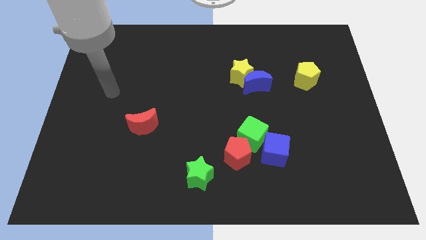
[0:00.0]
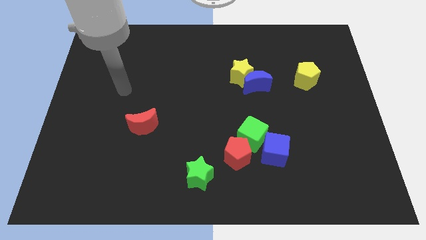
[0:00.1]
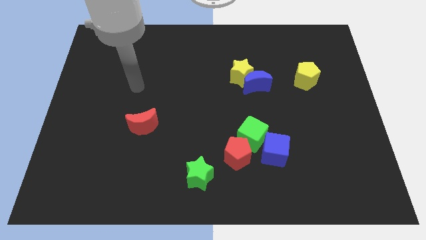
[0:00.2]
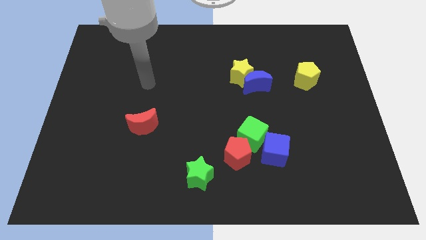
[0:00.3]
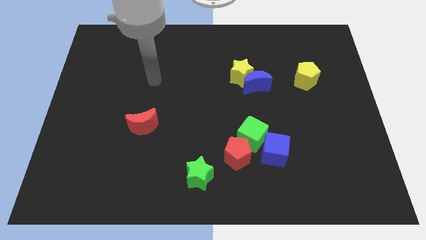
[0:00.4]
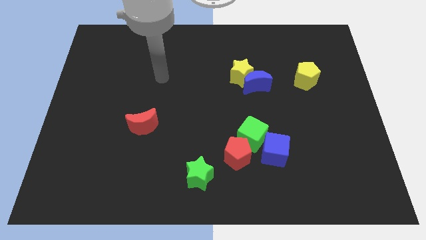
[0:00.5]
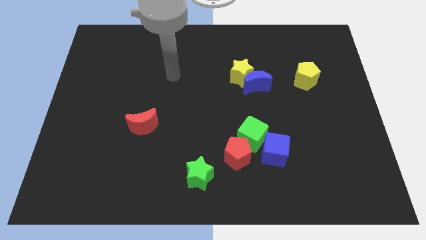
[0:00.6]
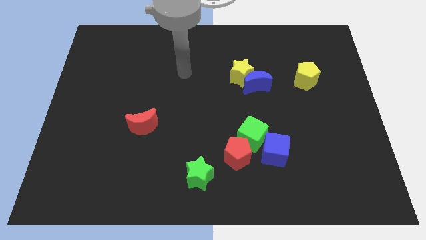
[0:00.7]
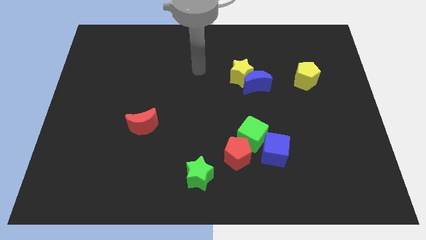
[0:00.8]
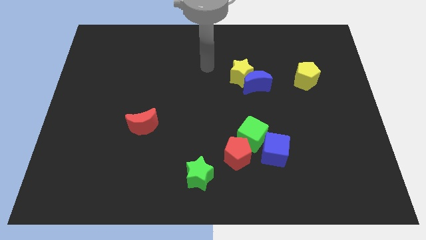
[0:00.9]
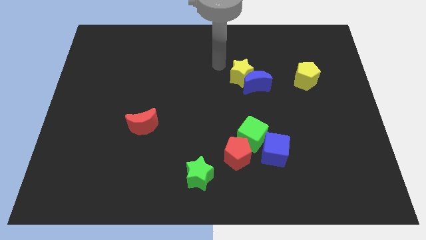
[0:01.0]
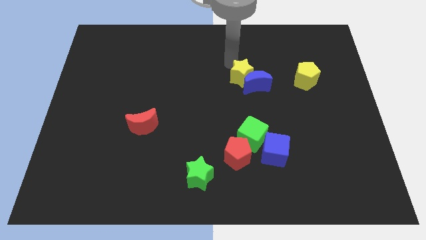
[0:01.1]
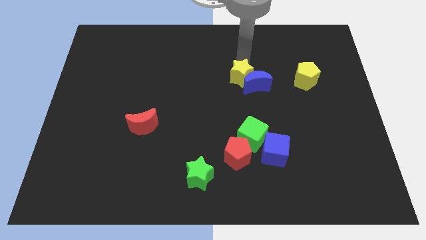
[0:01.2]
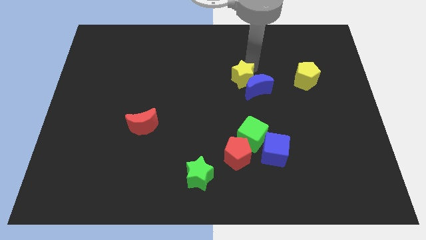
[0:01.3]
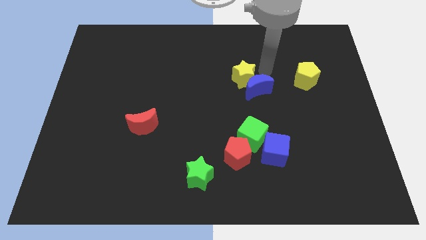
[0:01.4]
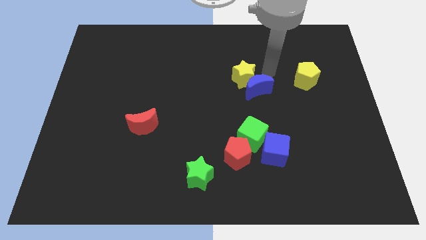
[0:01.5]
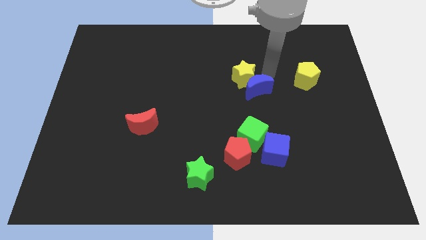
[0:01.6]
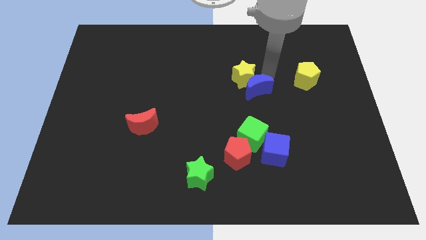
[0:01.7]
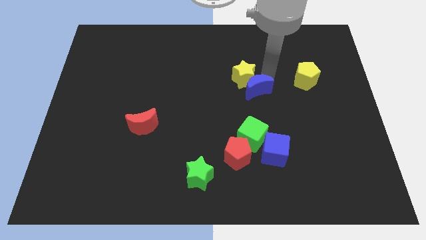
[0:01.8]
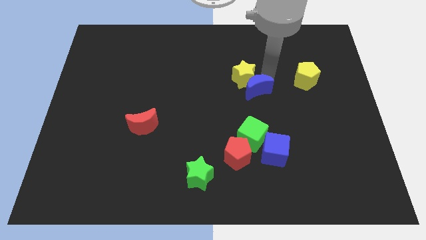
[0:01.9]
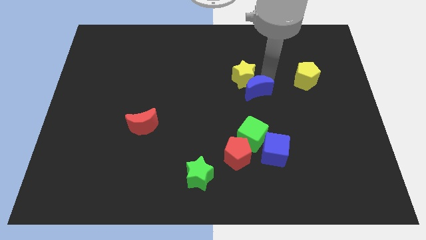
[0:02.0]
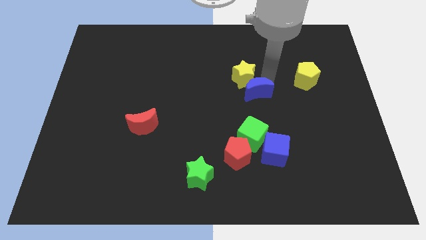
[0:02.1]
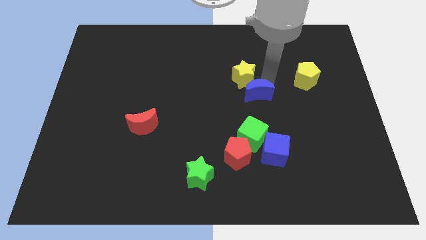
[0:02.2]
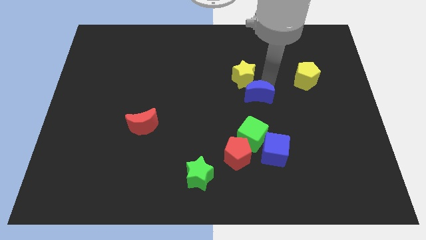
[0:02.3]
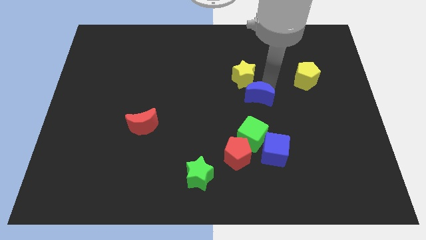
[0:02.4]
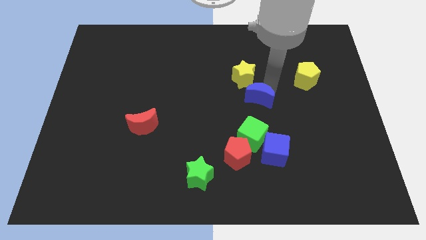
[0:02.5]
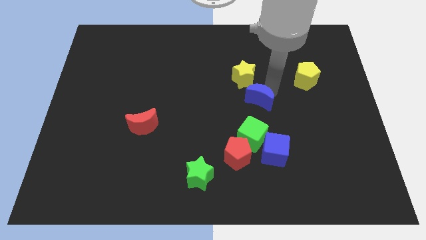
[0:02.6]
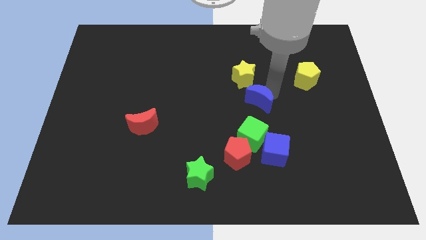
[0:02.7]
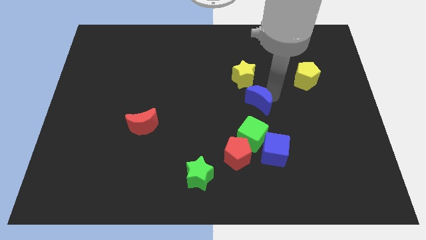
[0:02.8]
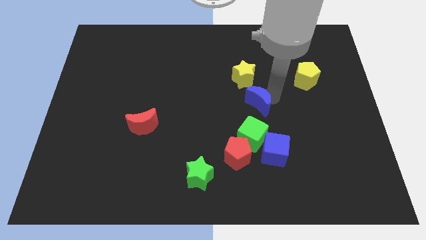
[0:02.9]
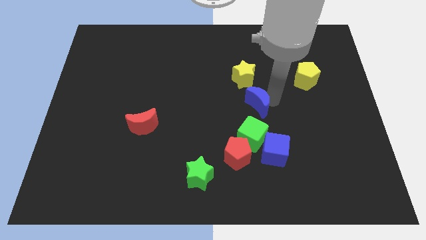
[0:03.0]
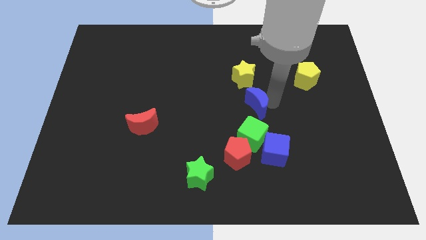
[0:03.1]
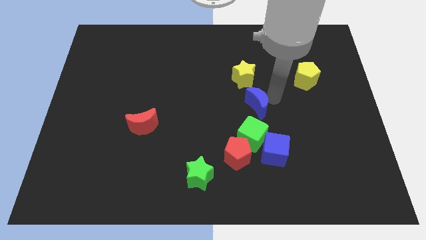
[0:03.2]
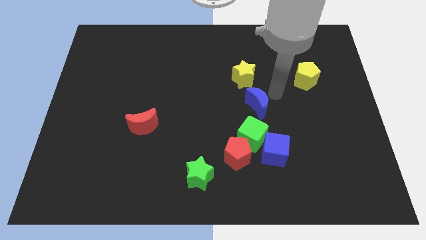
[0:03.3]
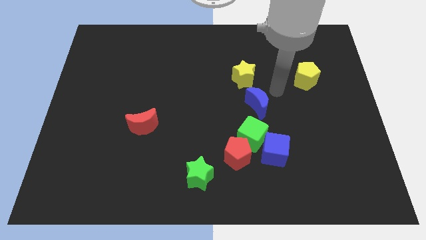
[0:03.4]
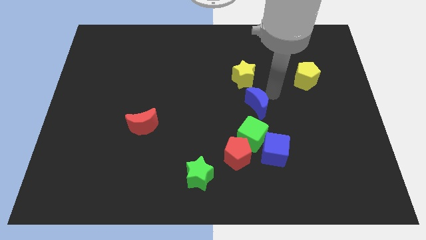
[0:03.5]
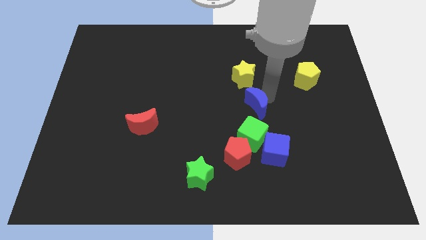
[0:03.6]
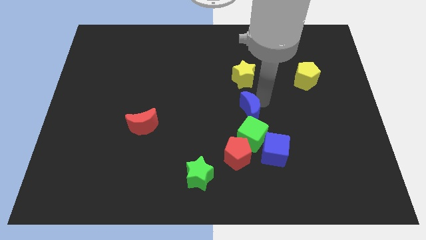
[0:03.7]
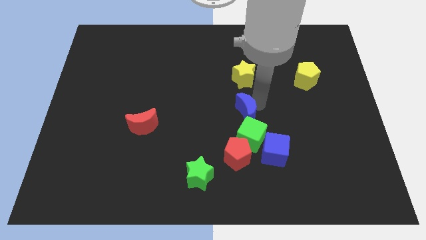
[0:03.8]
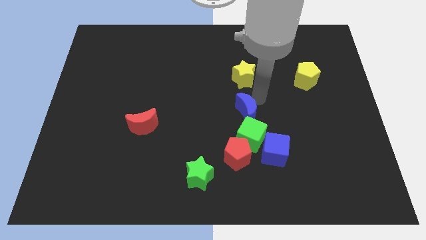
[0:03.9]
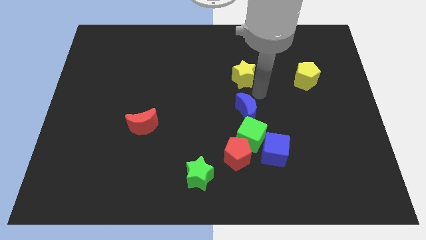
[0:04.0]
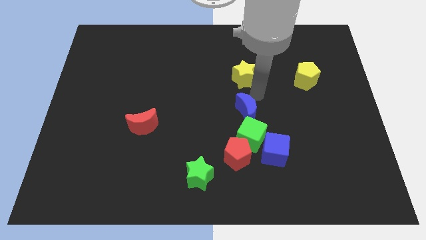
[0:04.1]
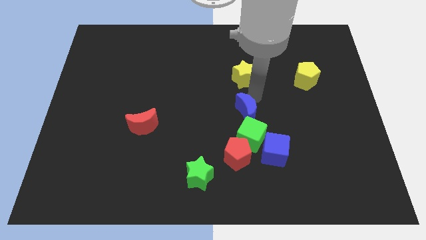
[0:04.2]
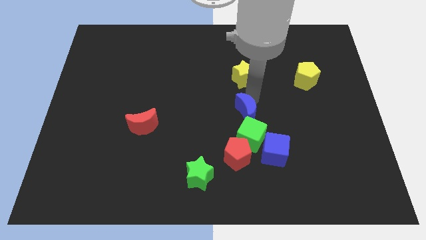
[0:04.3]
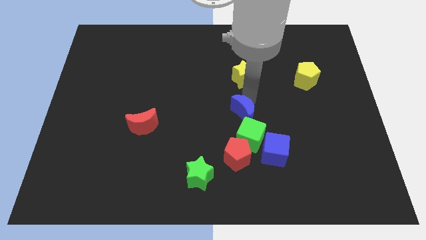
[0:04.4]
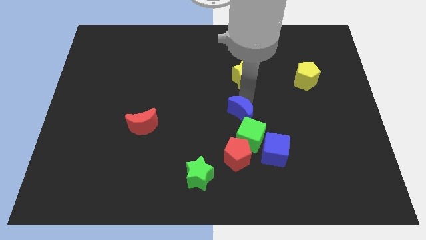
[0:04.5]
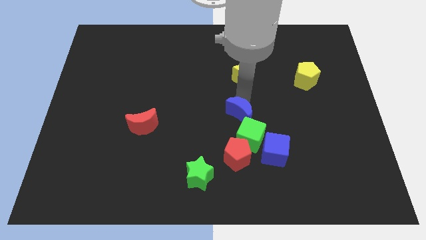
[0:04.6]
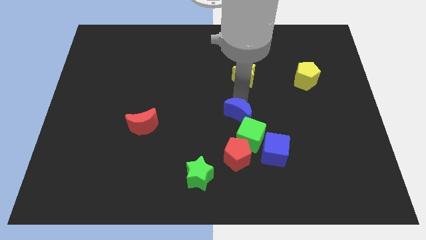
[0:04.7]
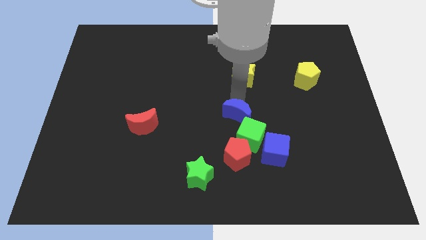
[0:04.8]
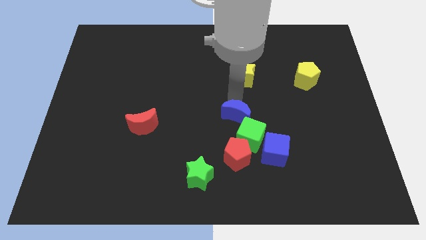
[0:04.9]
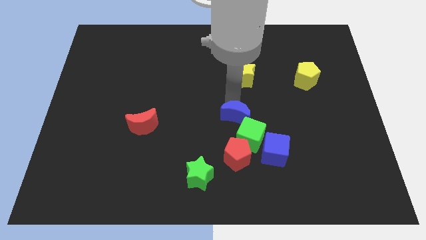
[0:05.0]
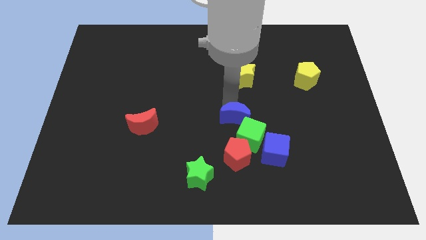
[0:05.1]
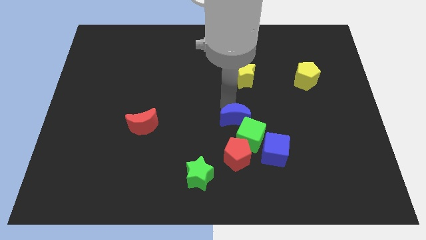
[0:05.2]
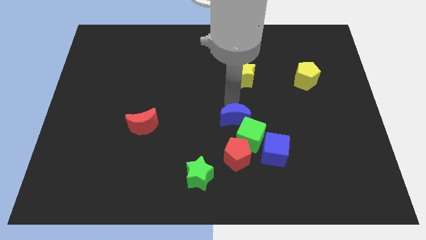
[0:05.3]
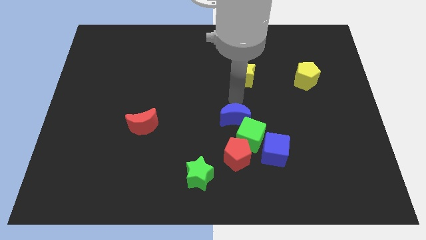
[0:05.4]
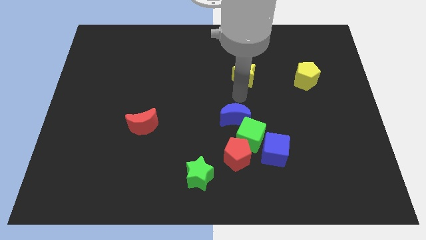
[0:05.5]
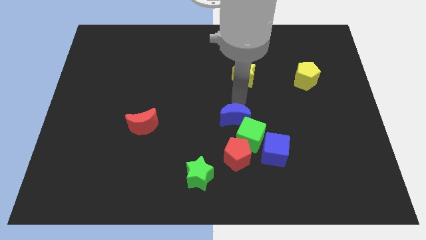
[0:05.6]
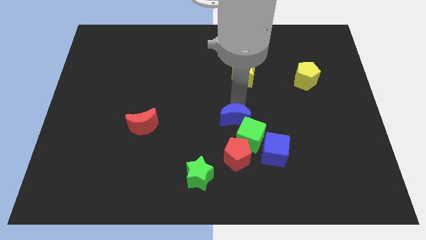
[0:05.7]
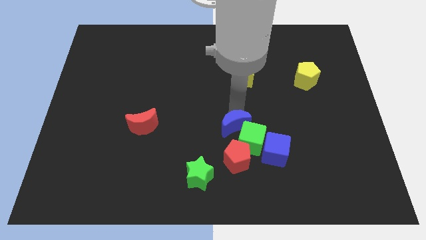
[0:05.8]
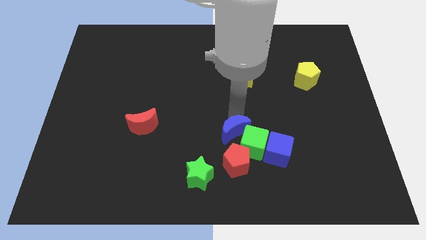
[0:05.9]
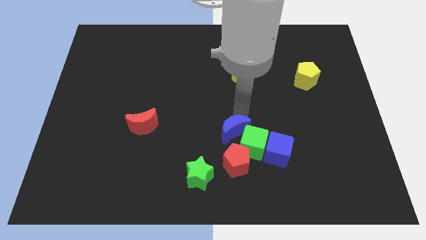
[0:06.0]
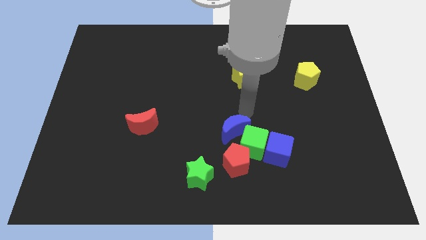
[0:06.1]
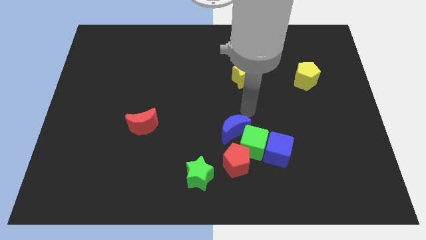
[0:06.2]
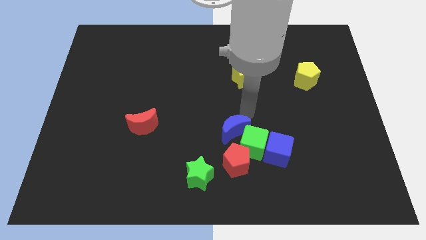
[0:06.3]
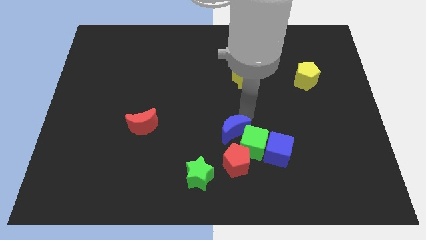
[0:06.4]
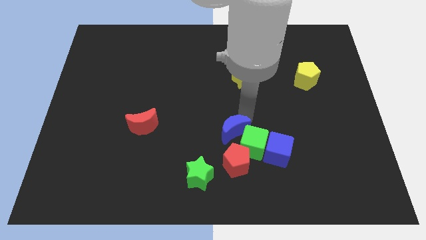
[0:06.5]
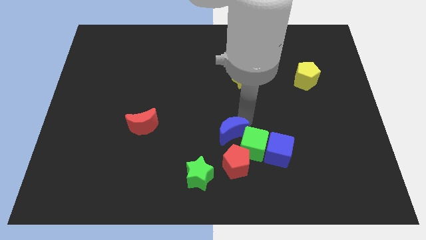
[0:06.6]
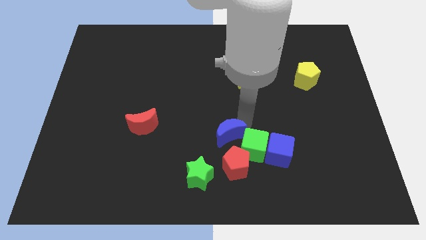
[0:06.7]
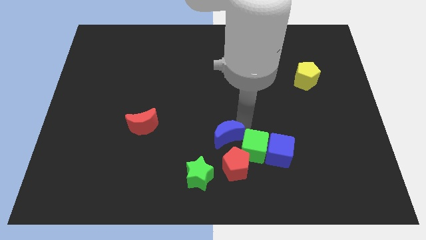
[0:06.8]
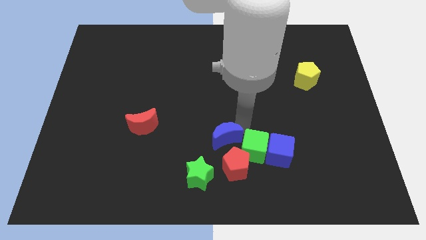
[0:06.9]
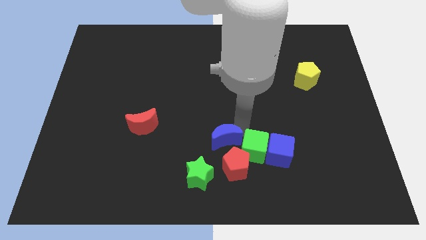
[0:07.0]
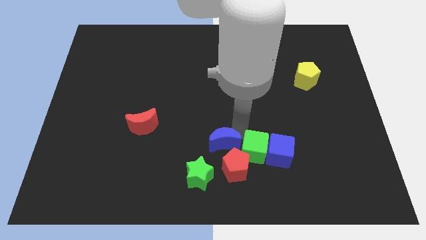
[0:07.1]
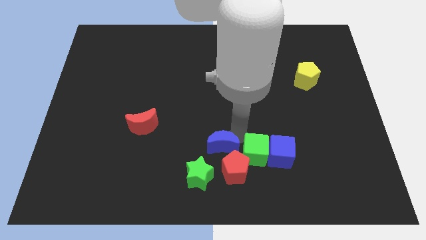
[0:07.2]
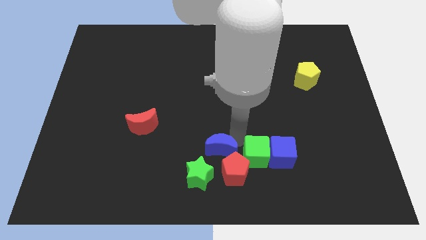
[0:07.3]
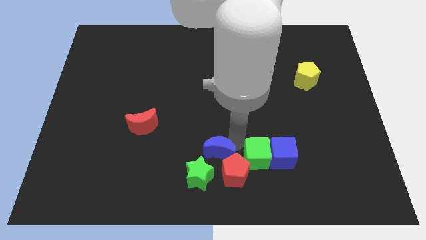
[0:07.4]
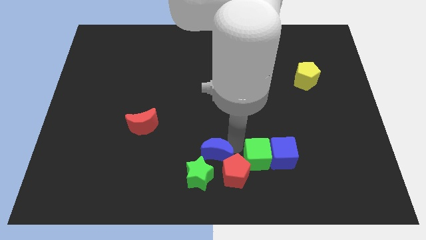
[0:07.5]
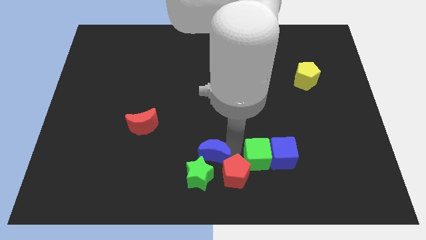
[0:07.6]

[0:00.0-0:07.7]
move the blue moon close to the green star

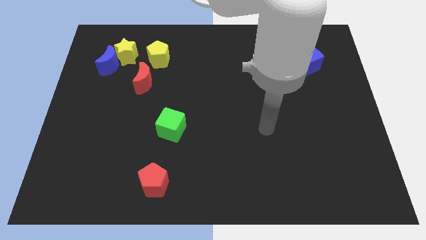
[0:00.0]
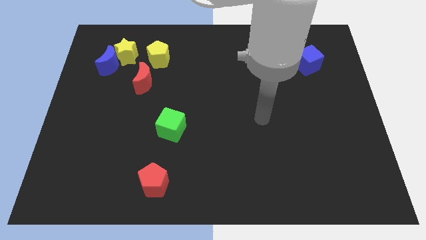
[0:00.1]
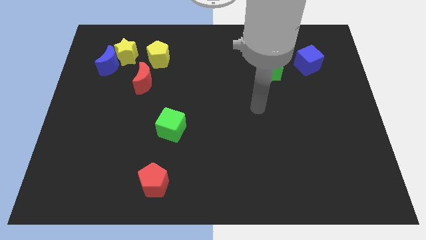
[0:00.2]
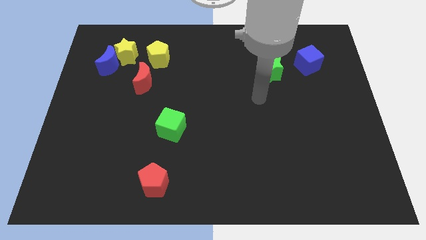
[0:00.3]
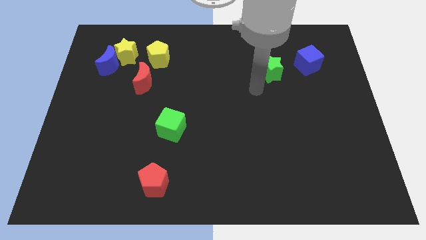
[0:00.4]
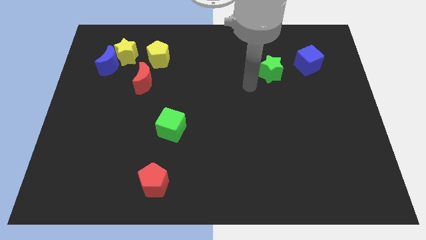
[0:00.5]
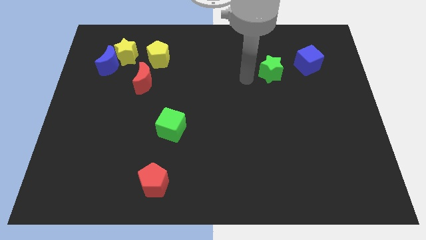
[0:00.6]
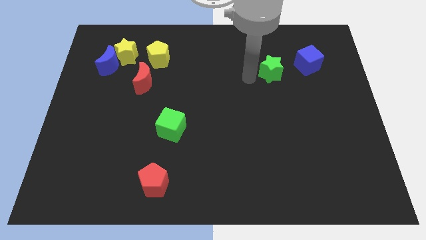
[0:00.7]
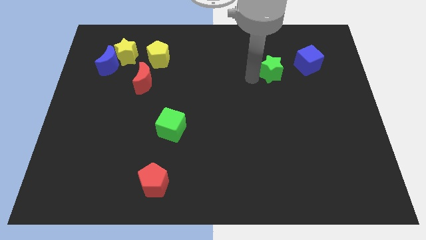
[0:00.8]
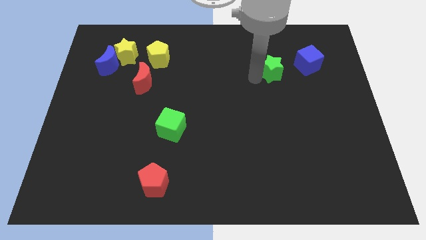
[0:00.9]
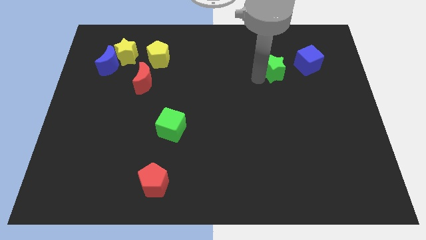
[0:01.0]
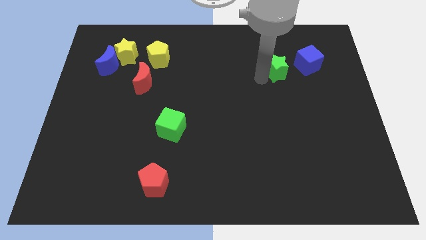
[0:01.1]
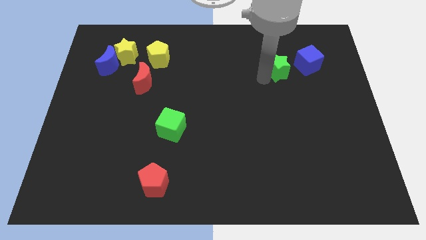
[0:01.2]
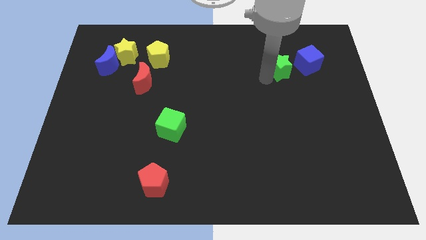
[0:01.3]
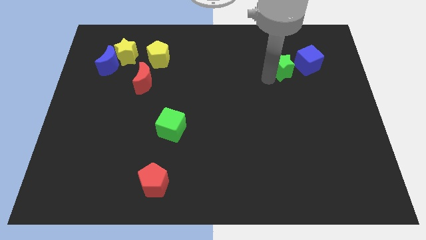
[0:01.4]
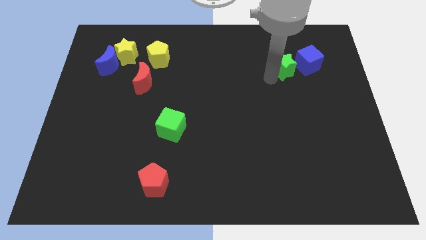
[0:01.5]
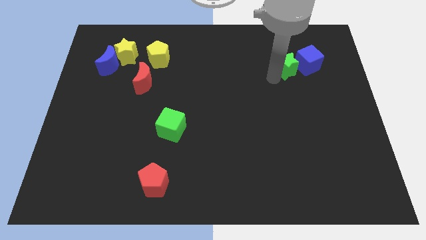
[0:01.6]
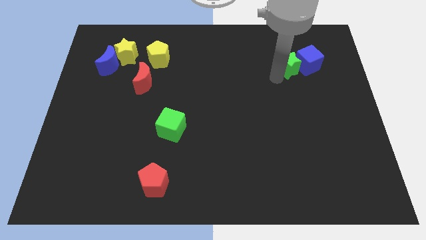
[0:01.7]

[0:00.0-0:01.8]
move the green star next to the blue cube
